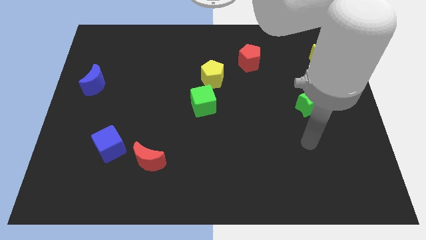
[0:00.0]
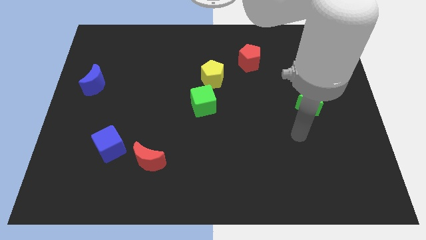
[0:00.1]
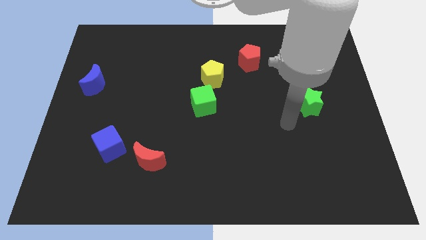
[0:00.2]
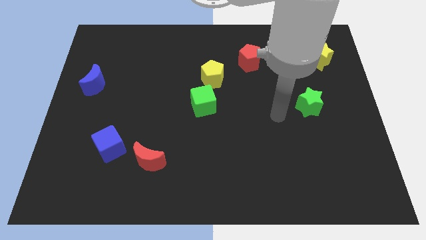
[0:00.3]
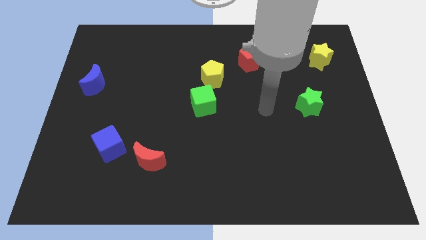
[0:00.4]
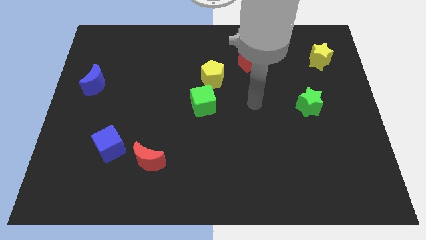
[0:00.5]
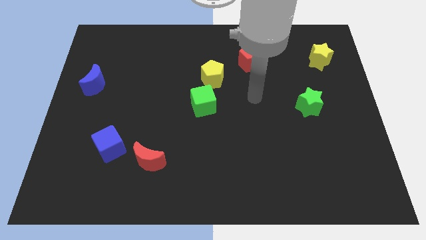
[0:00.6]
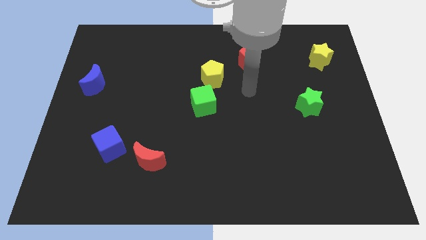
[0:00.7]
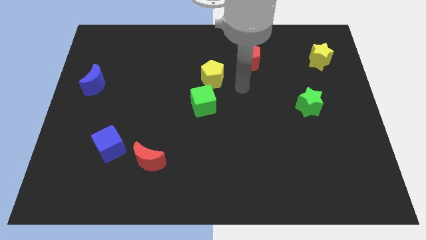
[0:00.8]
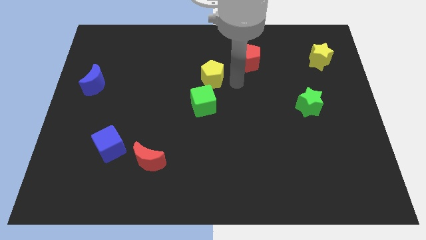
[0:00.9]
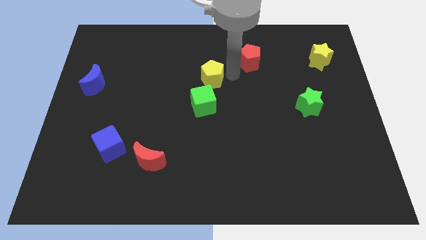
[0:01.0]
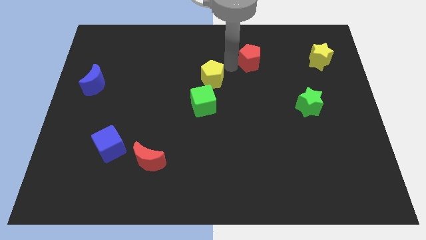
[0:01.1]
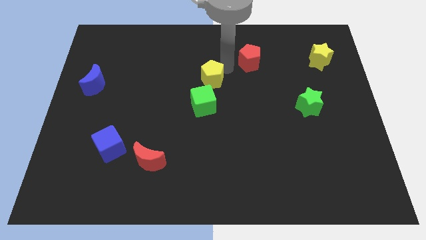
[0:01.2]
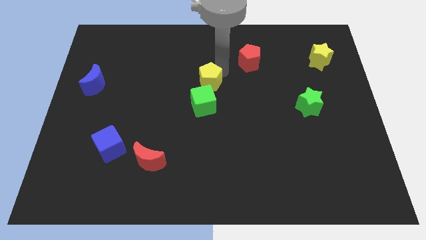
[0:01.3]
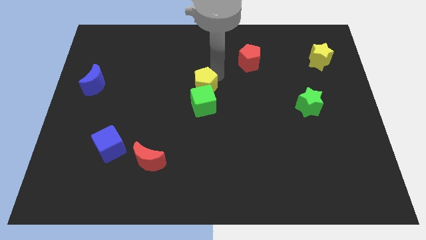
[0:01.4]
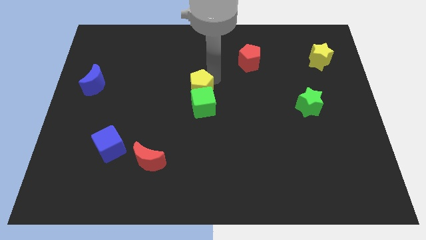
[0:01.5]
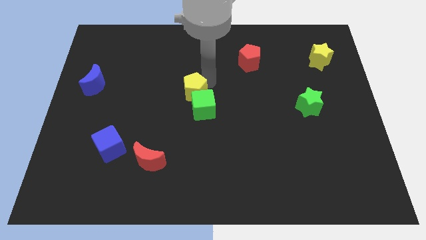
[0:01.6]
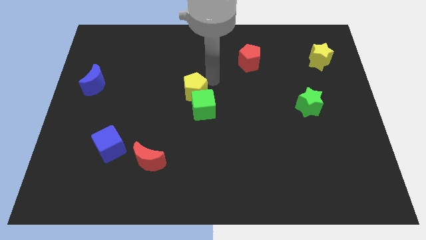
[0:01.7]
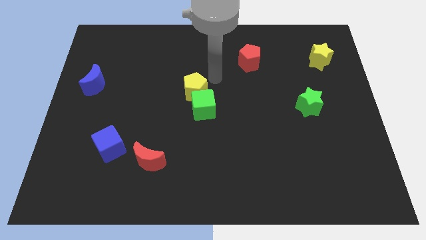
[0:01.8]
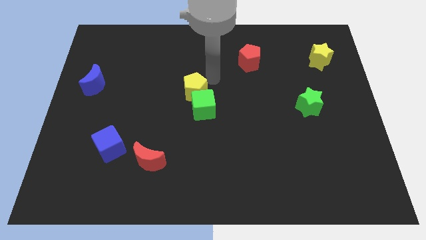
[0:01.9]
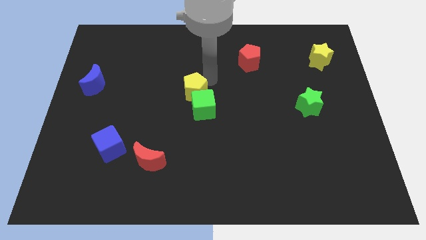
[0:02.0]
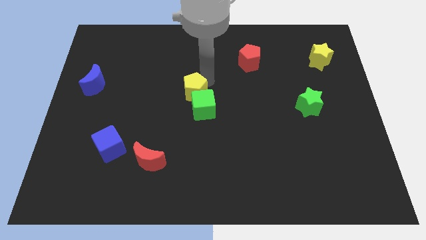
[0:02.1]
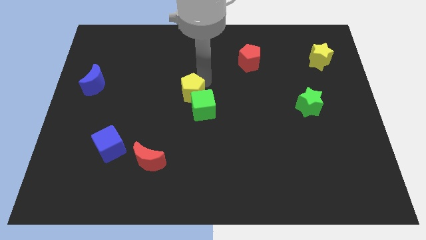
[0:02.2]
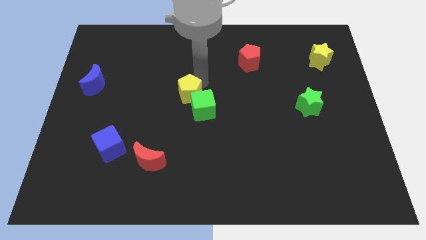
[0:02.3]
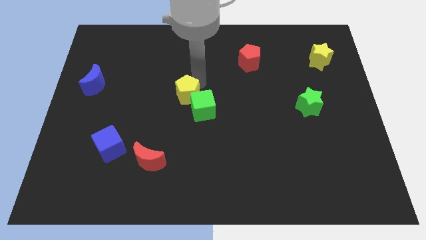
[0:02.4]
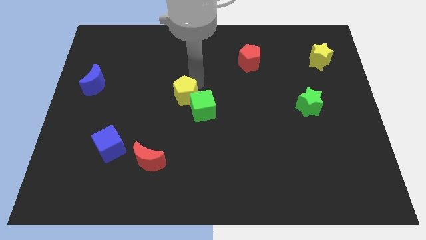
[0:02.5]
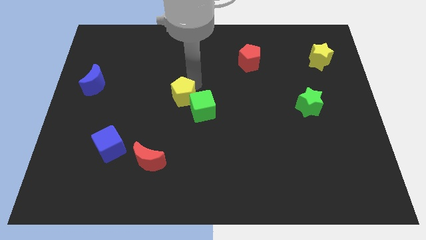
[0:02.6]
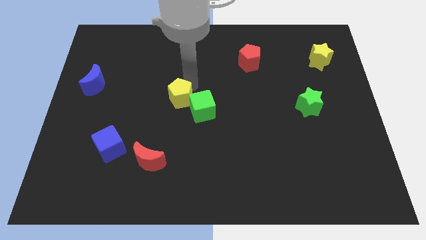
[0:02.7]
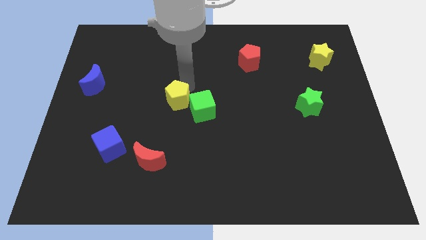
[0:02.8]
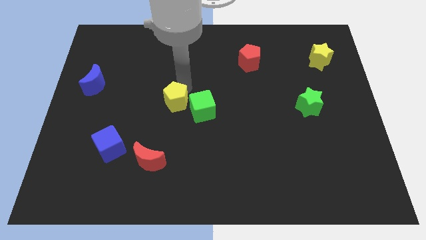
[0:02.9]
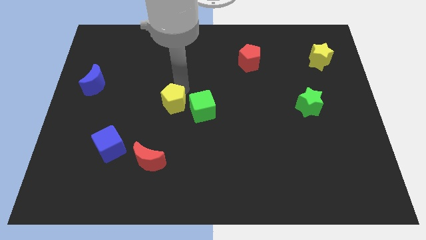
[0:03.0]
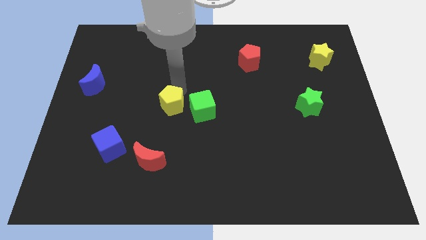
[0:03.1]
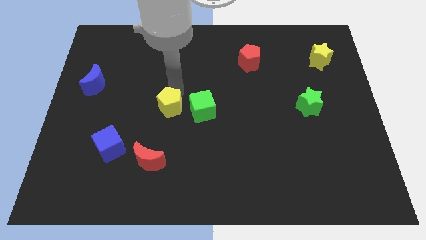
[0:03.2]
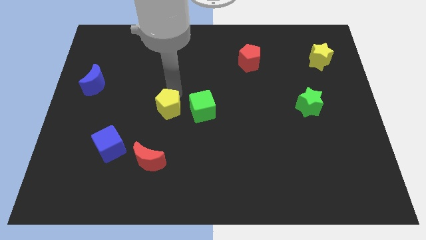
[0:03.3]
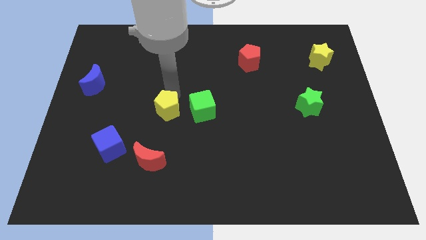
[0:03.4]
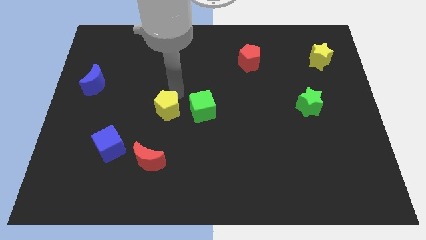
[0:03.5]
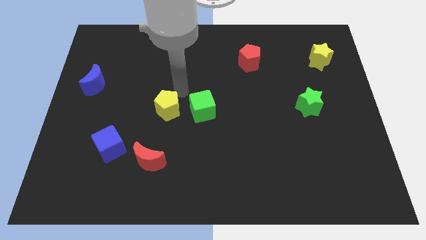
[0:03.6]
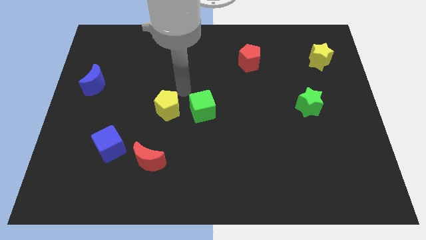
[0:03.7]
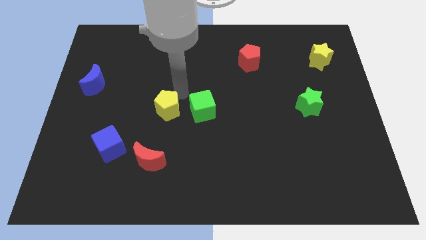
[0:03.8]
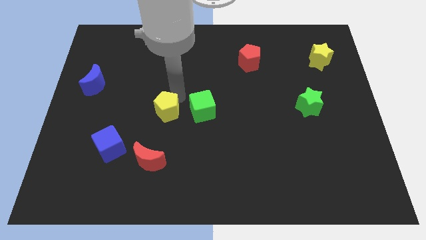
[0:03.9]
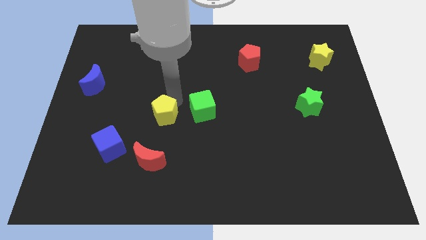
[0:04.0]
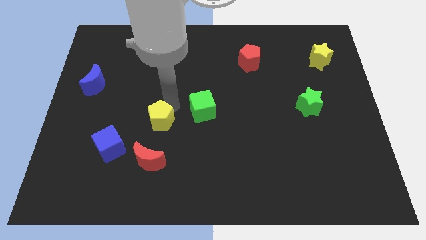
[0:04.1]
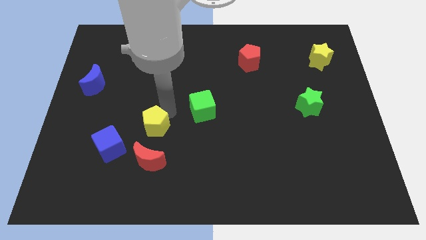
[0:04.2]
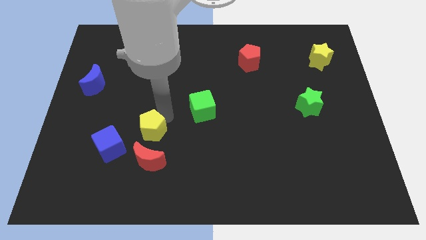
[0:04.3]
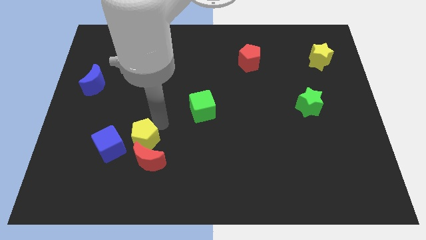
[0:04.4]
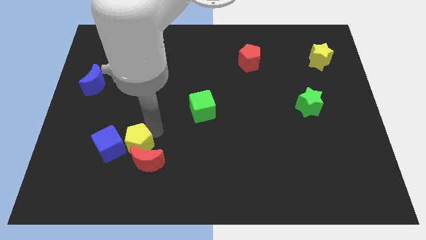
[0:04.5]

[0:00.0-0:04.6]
slide the yellow pentagon close to the blue cube

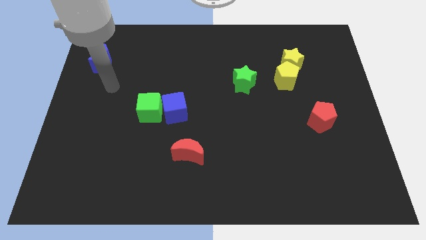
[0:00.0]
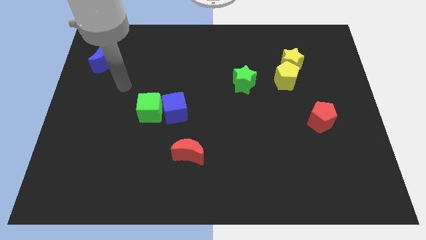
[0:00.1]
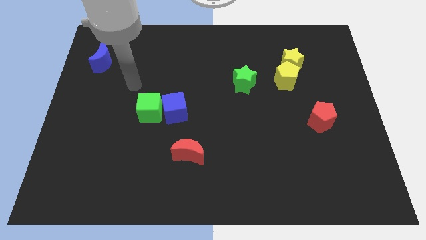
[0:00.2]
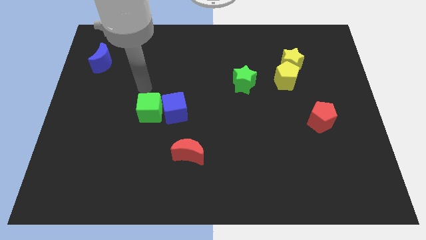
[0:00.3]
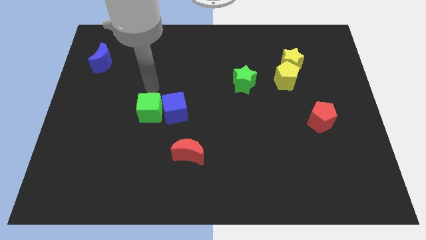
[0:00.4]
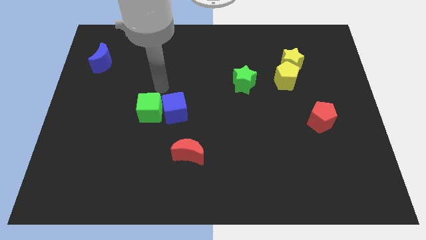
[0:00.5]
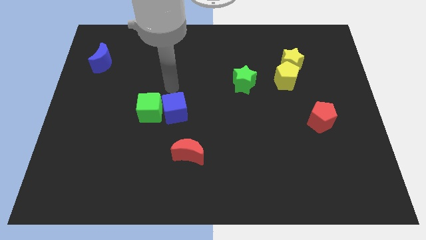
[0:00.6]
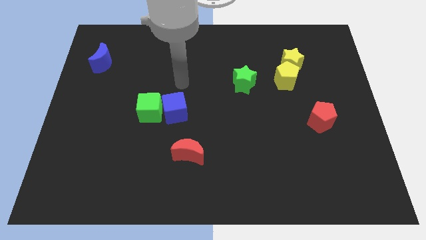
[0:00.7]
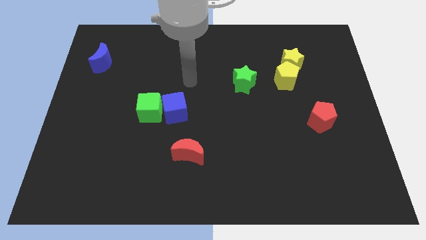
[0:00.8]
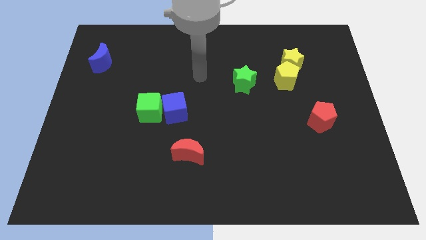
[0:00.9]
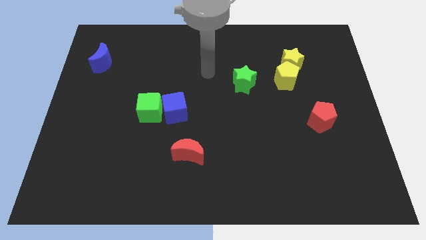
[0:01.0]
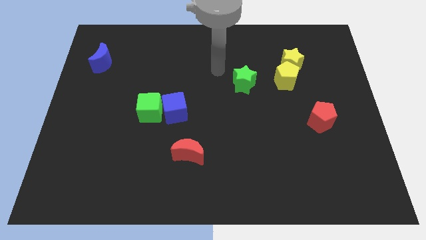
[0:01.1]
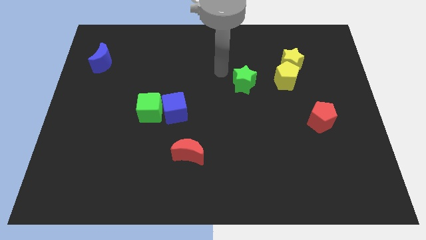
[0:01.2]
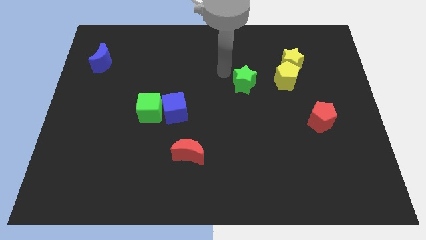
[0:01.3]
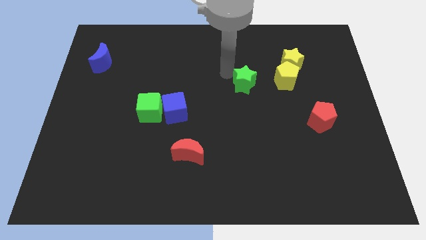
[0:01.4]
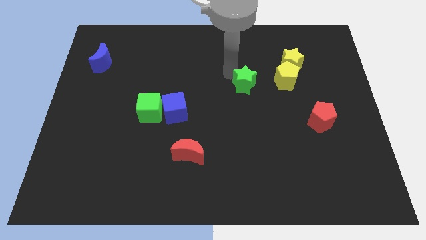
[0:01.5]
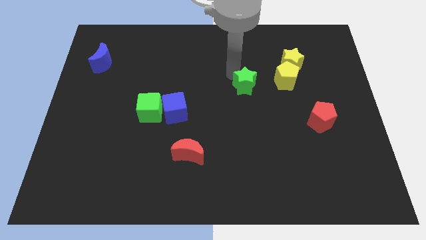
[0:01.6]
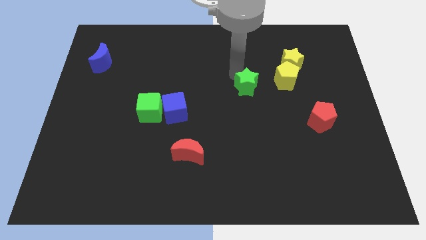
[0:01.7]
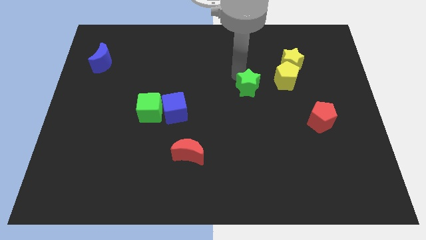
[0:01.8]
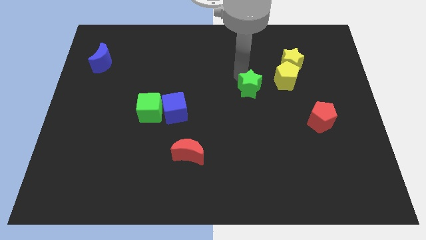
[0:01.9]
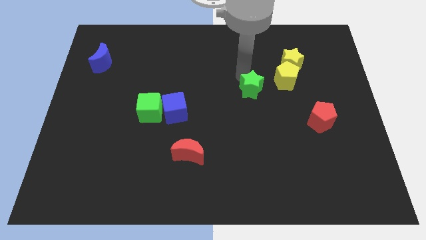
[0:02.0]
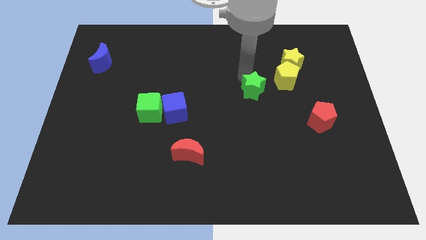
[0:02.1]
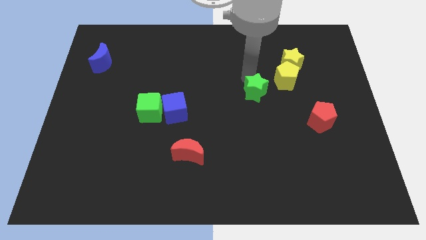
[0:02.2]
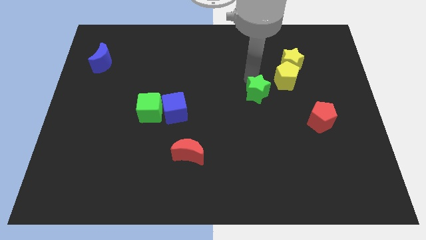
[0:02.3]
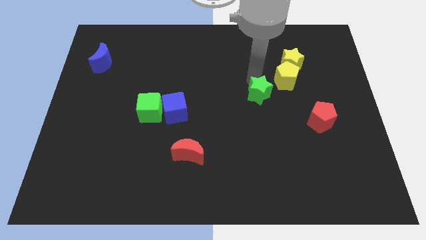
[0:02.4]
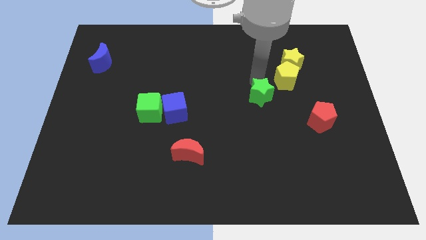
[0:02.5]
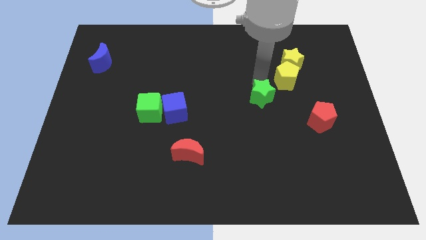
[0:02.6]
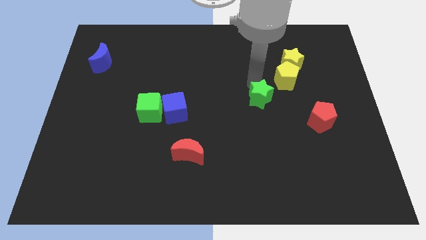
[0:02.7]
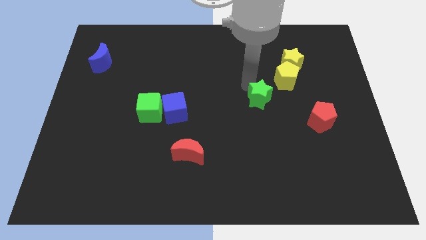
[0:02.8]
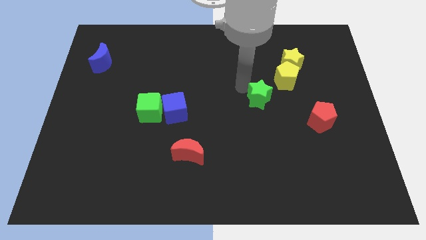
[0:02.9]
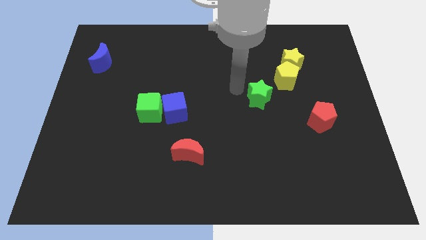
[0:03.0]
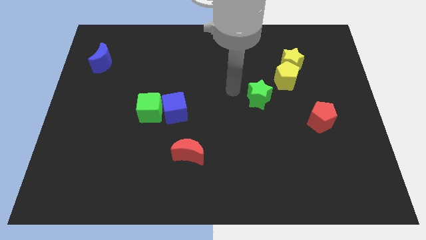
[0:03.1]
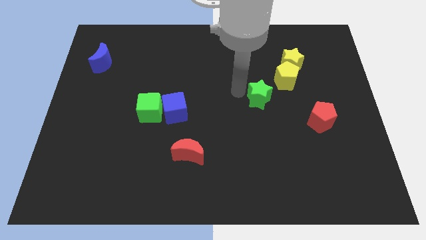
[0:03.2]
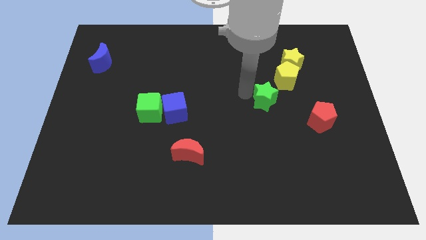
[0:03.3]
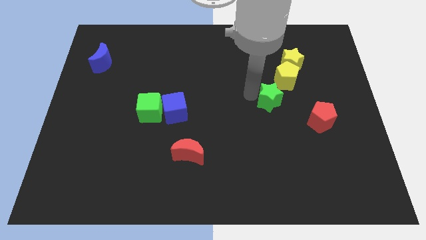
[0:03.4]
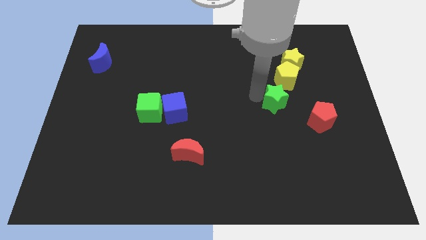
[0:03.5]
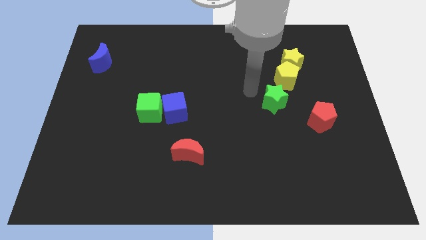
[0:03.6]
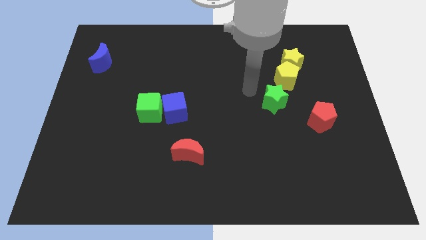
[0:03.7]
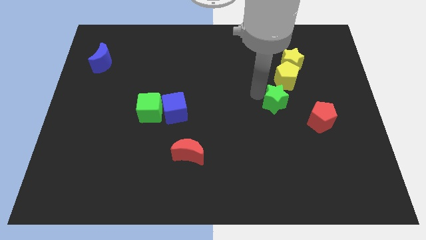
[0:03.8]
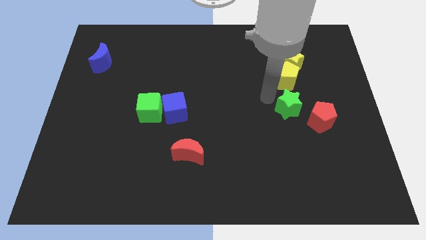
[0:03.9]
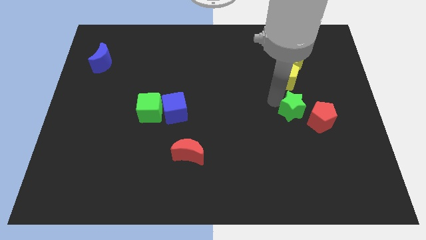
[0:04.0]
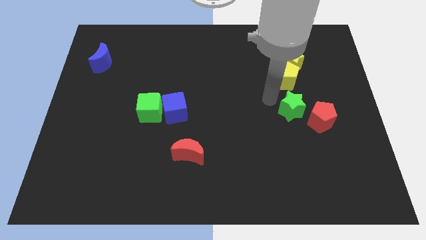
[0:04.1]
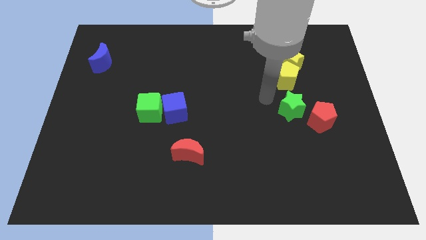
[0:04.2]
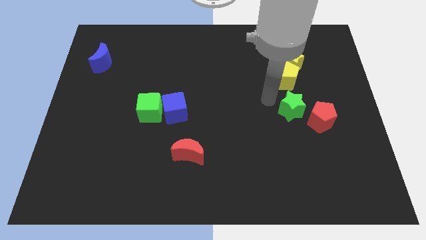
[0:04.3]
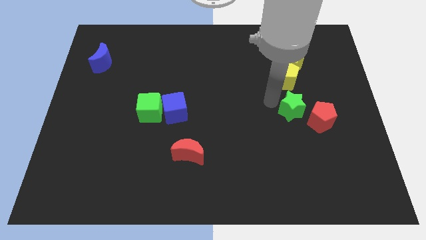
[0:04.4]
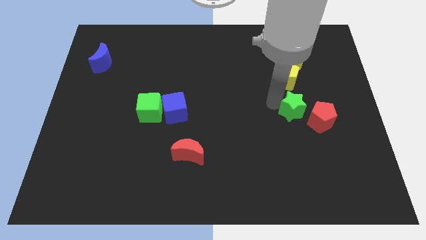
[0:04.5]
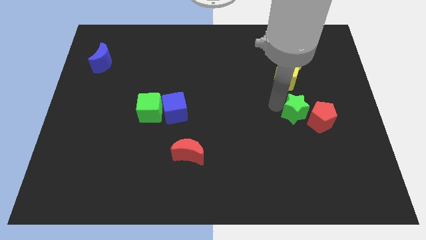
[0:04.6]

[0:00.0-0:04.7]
slide the green star to the red pentagon
